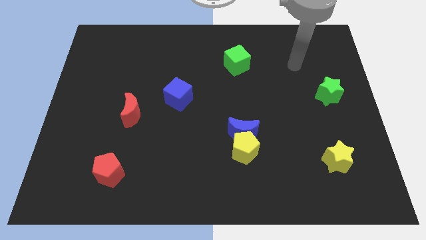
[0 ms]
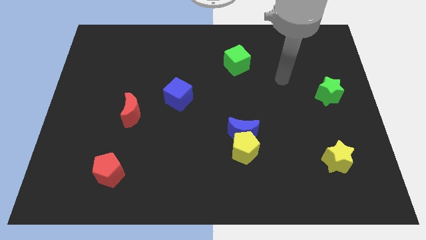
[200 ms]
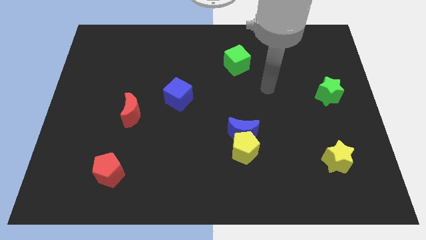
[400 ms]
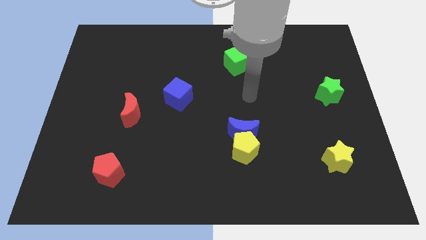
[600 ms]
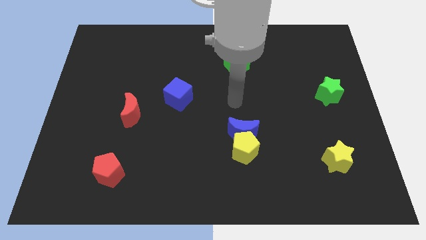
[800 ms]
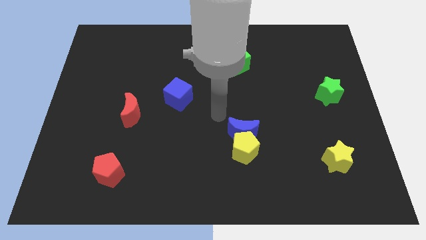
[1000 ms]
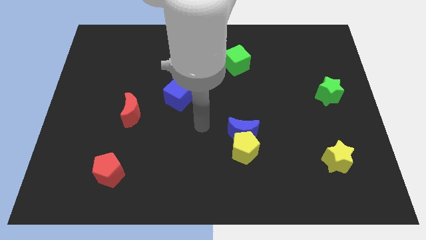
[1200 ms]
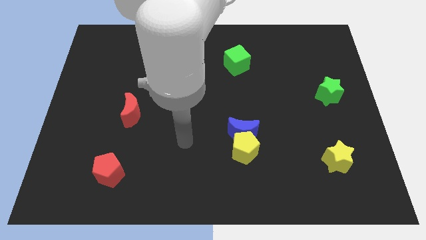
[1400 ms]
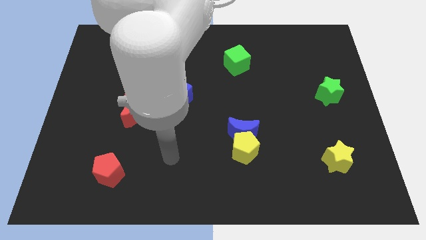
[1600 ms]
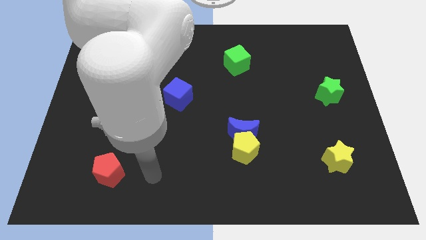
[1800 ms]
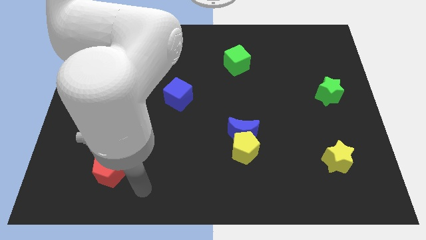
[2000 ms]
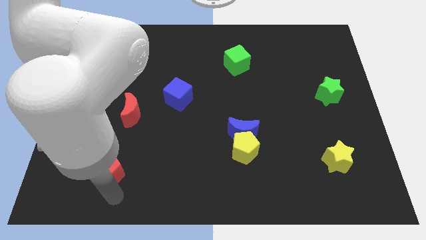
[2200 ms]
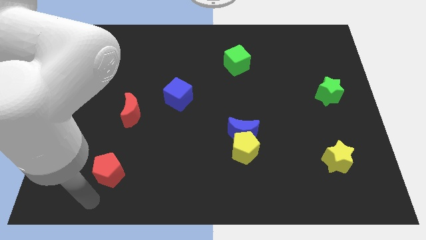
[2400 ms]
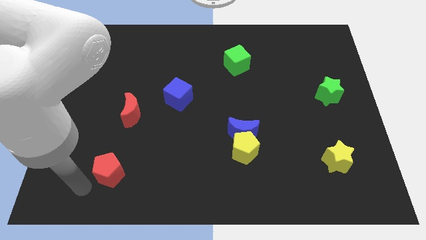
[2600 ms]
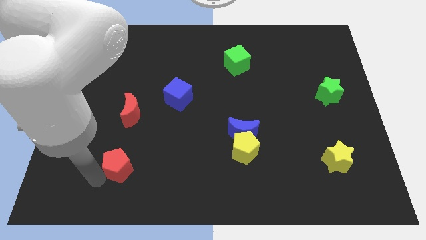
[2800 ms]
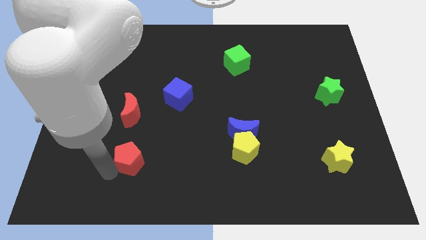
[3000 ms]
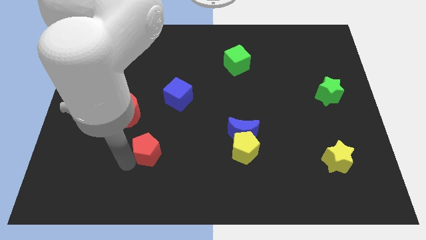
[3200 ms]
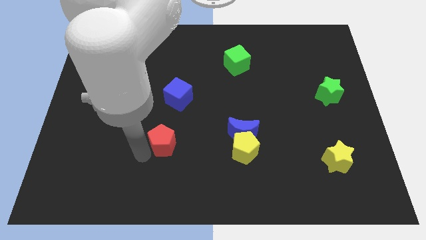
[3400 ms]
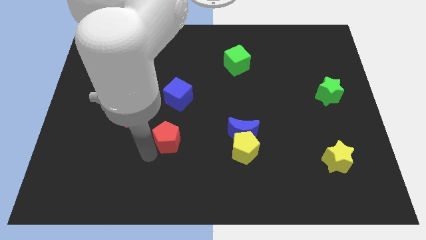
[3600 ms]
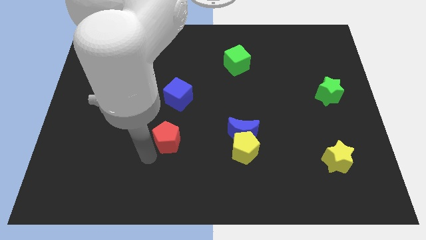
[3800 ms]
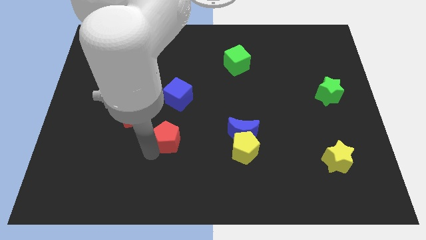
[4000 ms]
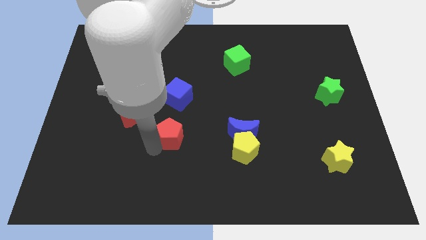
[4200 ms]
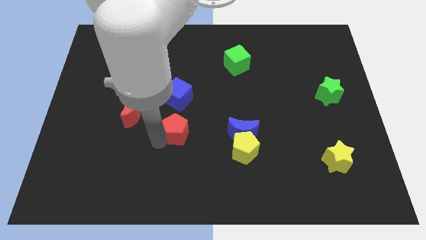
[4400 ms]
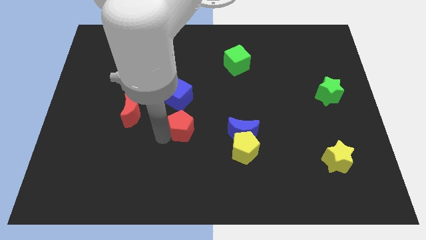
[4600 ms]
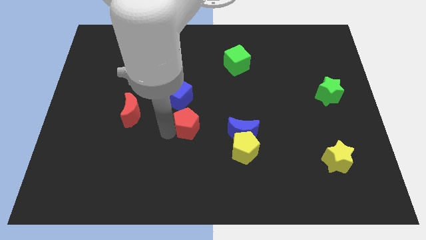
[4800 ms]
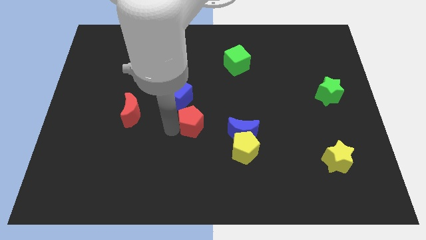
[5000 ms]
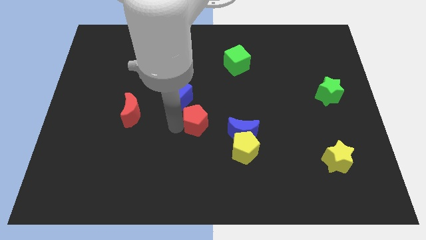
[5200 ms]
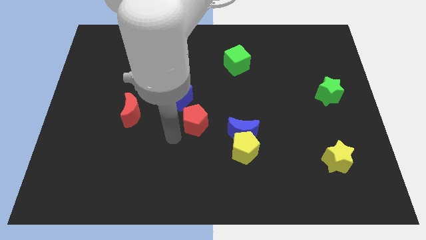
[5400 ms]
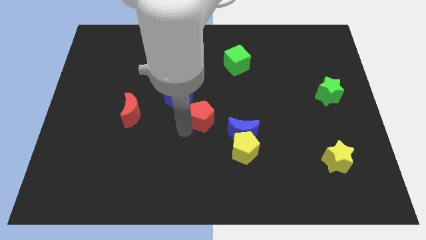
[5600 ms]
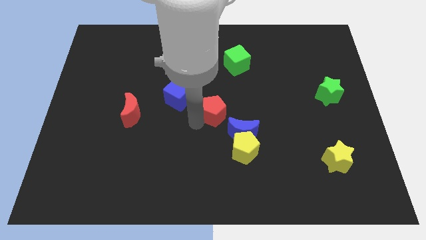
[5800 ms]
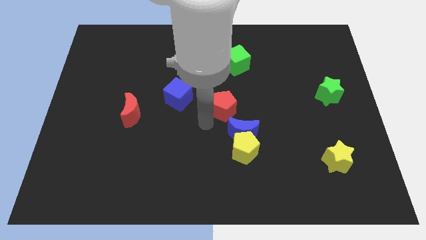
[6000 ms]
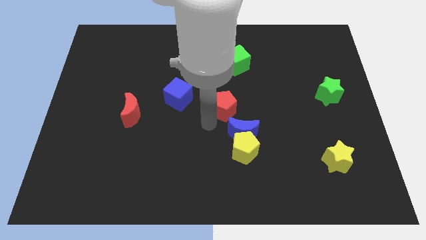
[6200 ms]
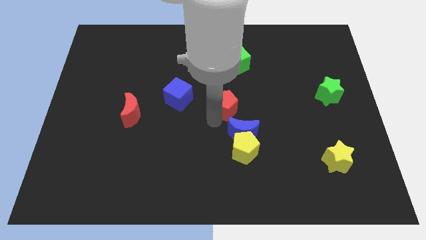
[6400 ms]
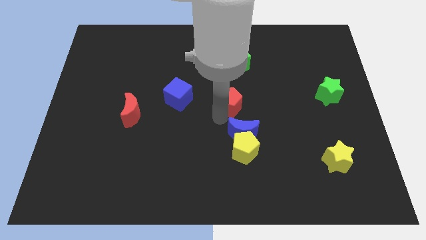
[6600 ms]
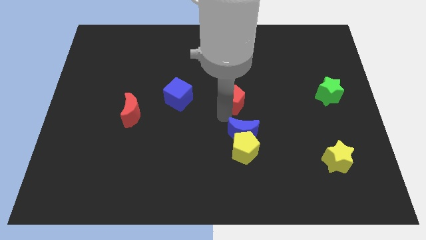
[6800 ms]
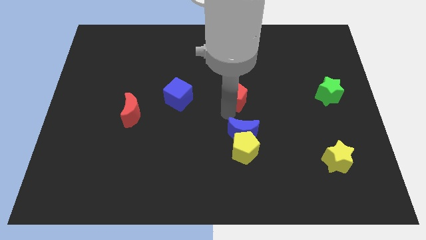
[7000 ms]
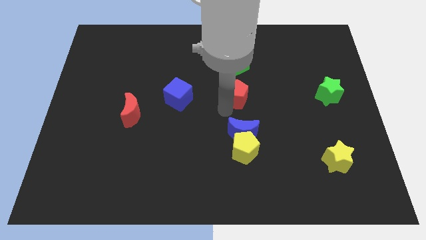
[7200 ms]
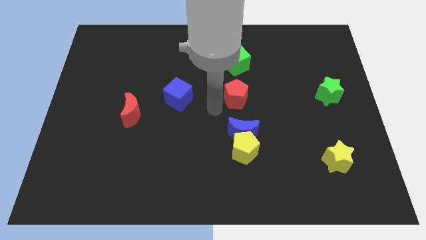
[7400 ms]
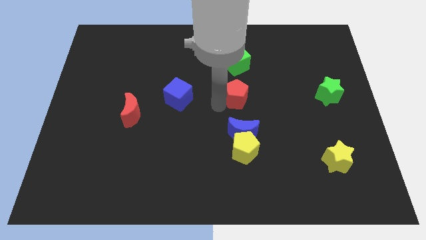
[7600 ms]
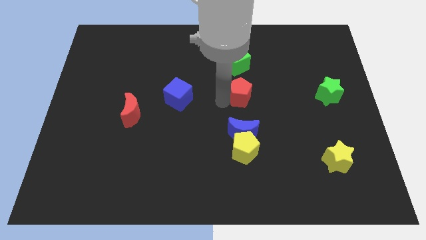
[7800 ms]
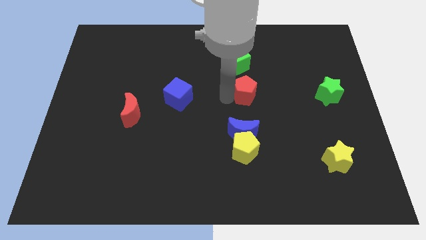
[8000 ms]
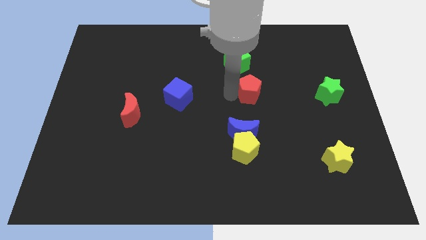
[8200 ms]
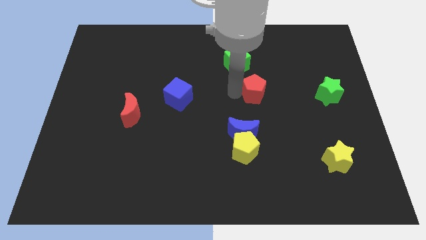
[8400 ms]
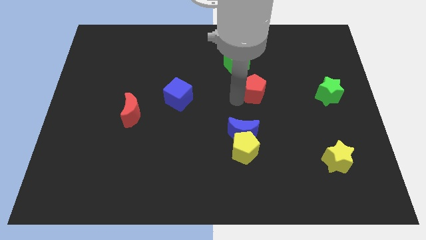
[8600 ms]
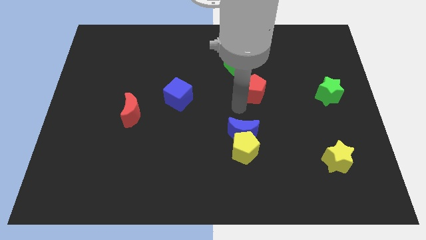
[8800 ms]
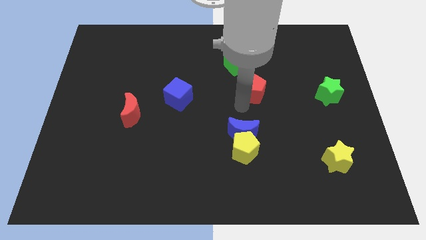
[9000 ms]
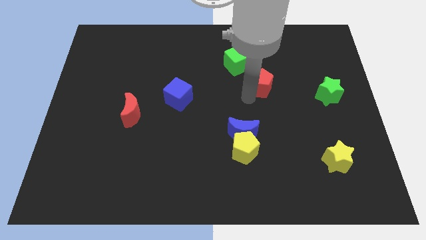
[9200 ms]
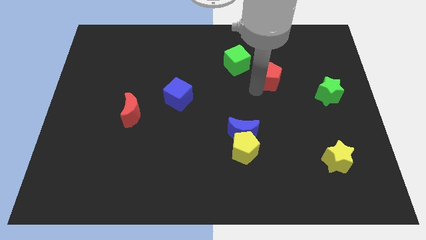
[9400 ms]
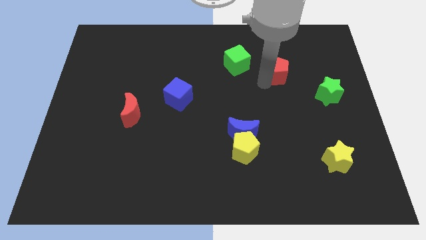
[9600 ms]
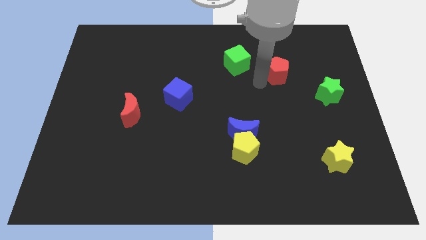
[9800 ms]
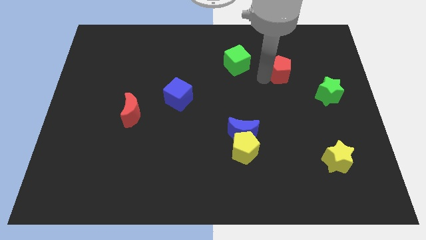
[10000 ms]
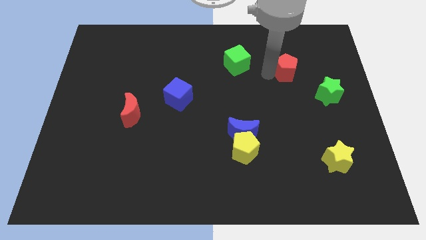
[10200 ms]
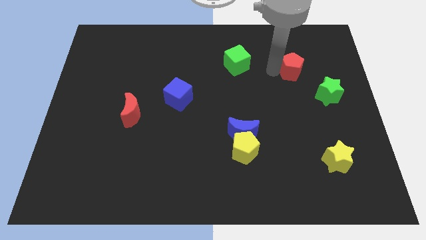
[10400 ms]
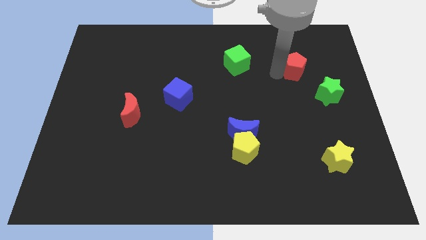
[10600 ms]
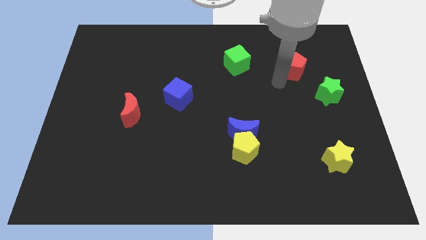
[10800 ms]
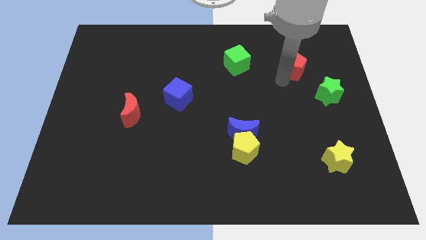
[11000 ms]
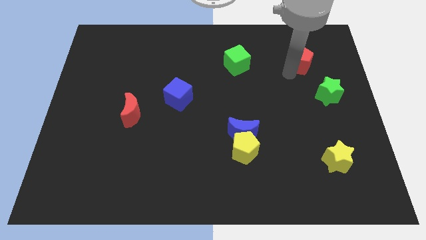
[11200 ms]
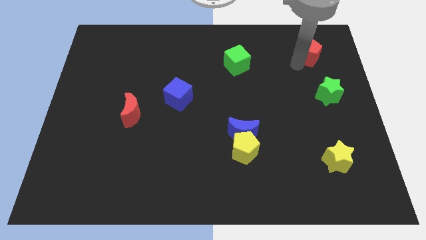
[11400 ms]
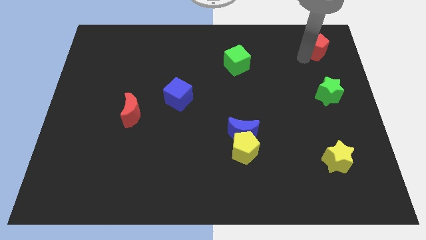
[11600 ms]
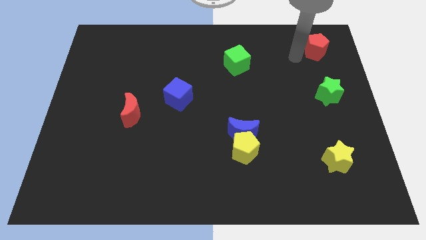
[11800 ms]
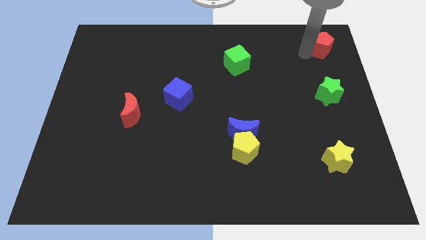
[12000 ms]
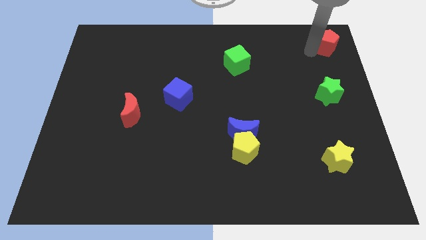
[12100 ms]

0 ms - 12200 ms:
slide the red pentagon to the upper right corner
